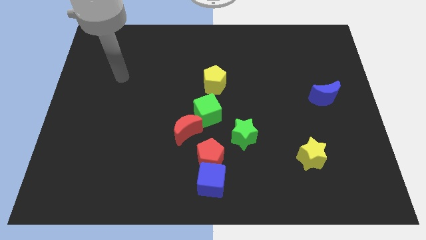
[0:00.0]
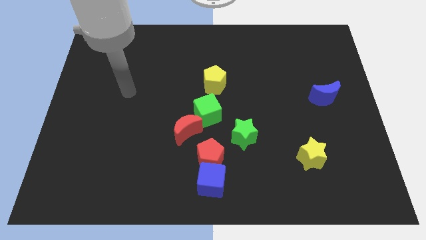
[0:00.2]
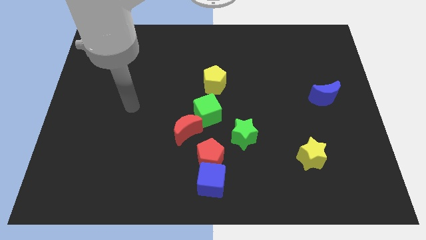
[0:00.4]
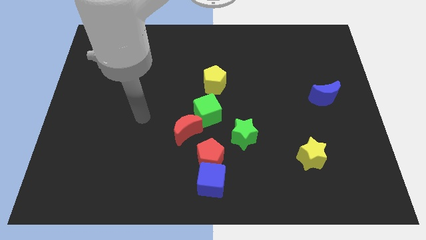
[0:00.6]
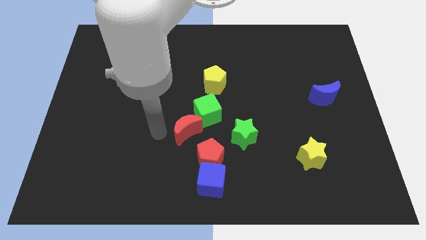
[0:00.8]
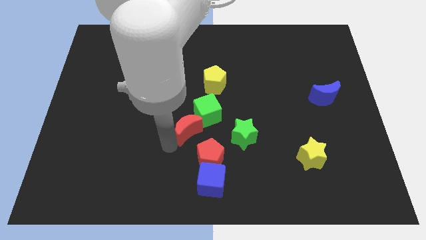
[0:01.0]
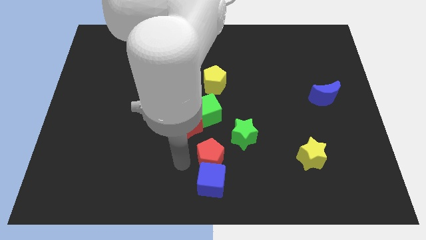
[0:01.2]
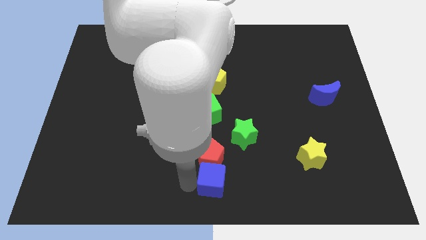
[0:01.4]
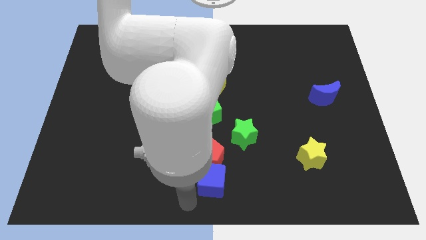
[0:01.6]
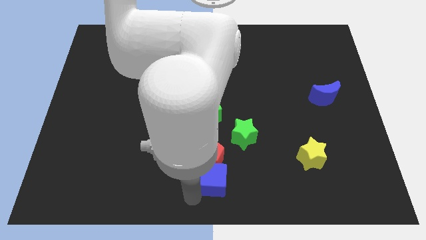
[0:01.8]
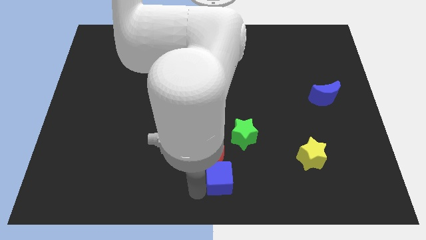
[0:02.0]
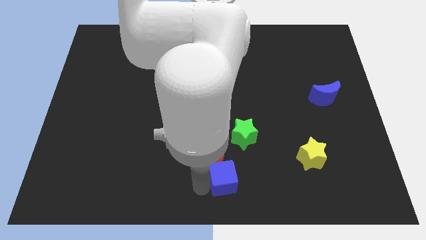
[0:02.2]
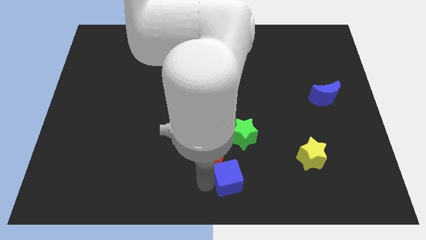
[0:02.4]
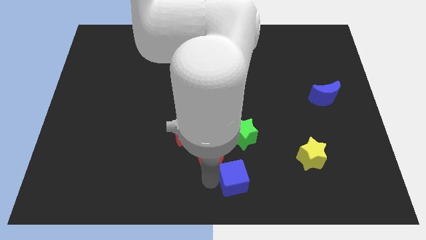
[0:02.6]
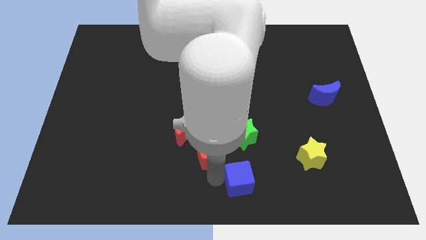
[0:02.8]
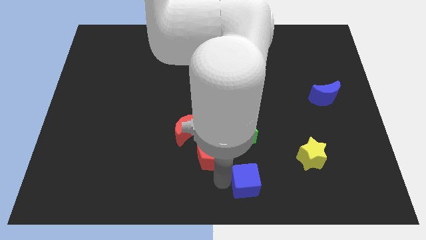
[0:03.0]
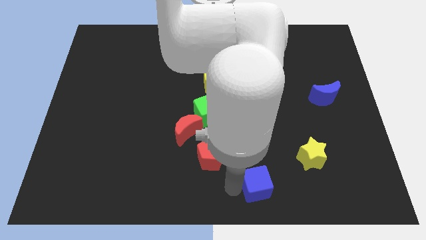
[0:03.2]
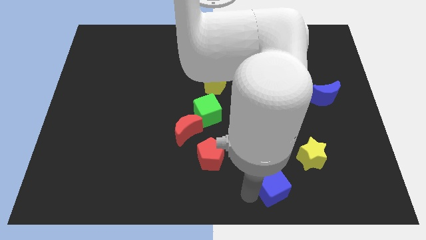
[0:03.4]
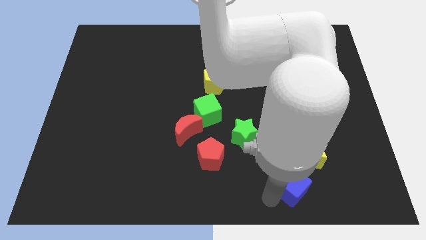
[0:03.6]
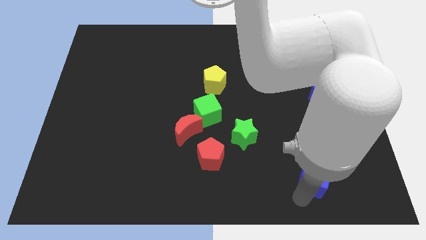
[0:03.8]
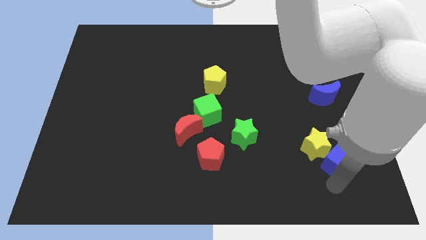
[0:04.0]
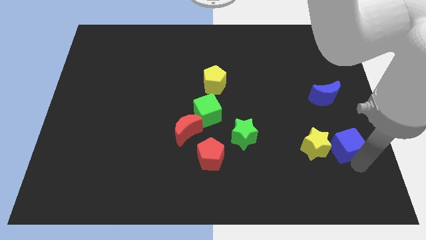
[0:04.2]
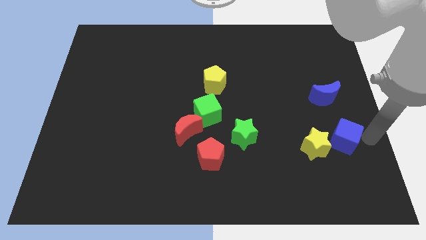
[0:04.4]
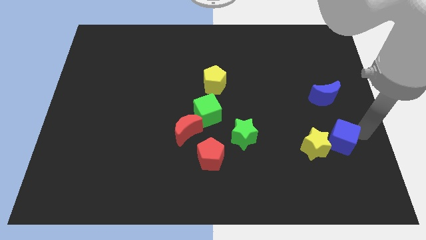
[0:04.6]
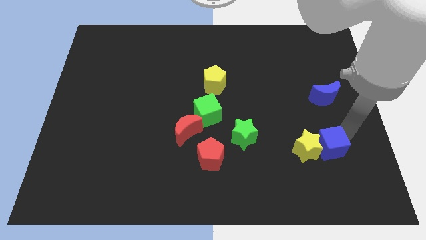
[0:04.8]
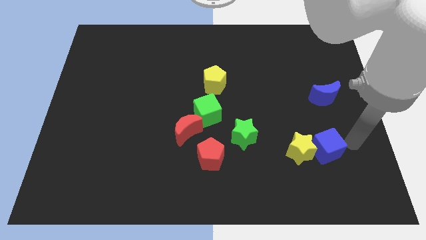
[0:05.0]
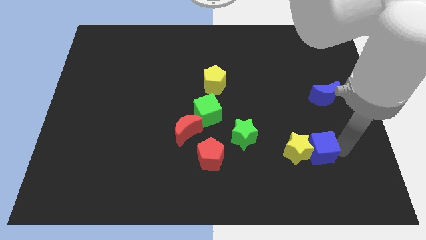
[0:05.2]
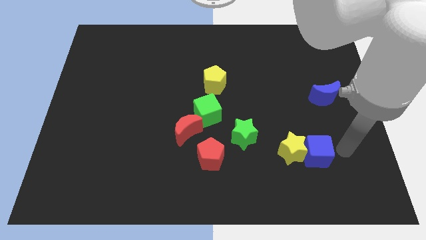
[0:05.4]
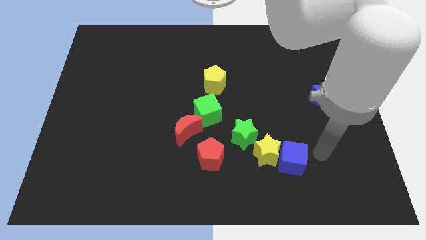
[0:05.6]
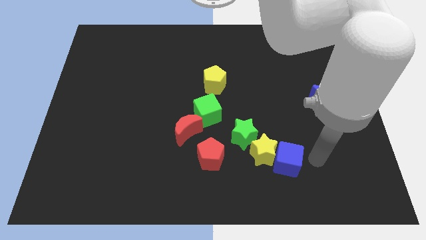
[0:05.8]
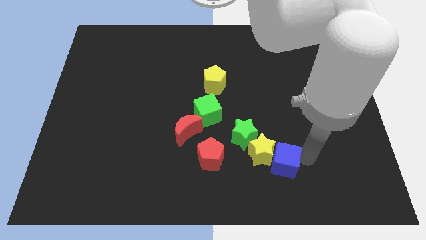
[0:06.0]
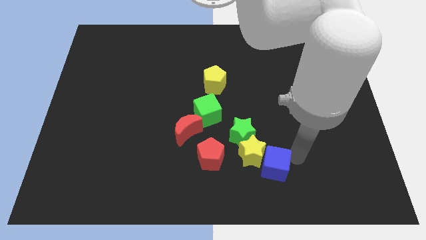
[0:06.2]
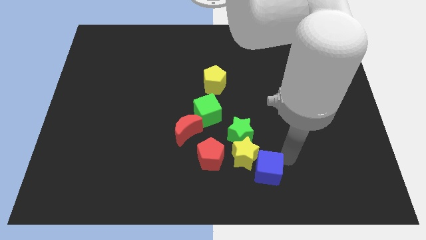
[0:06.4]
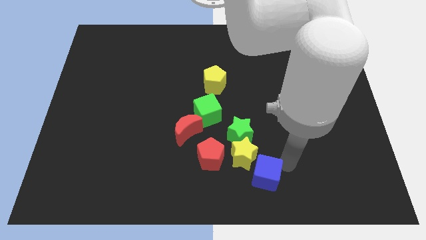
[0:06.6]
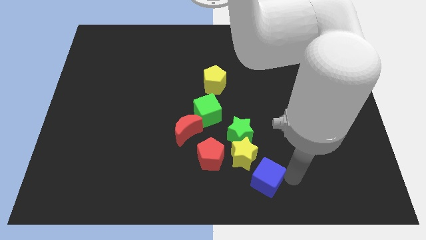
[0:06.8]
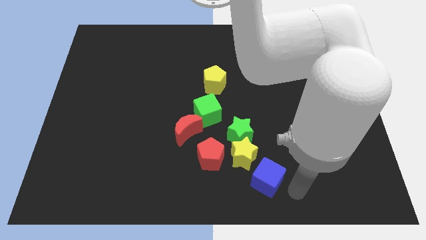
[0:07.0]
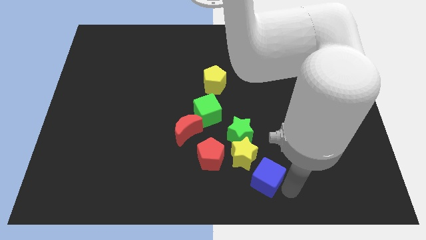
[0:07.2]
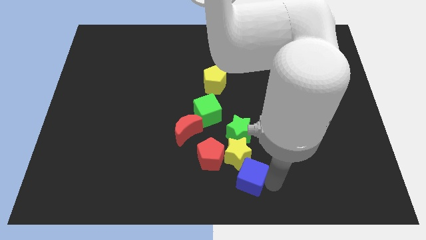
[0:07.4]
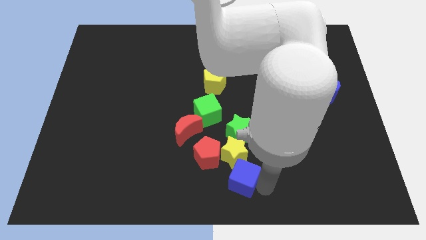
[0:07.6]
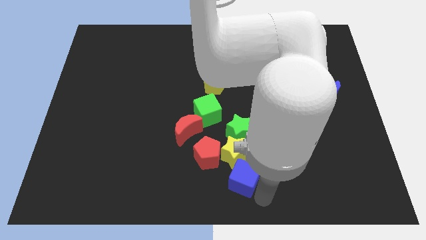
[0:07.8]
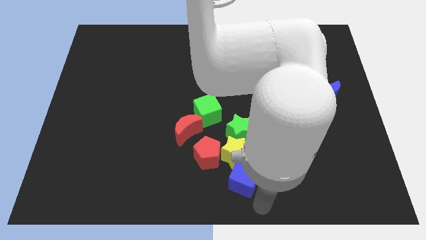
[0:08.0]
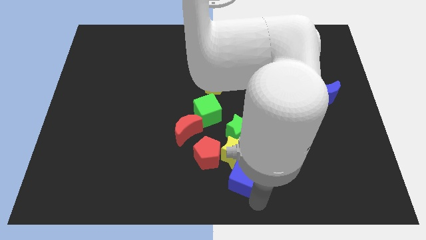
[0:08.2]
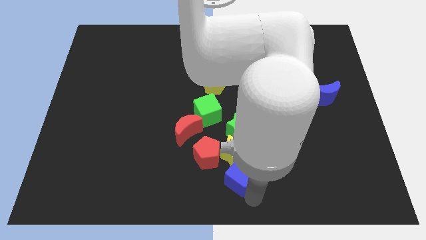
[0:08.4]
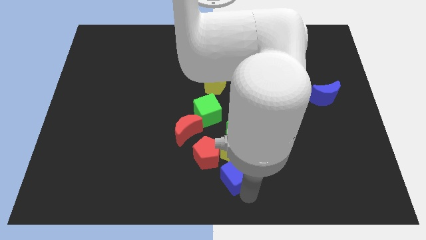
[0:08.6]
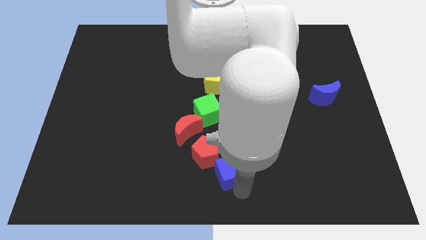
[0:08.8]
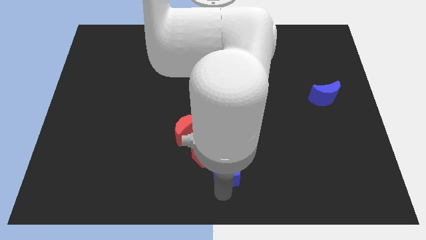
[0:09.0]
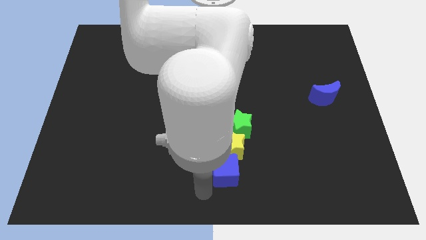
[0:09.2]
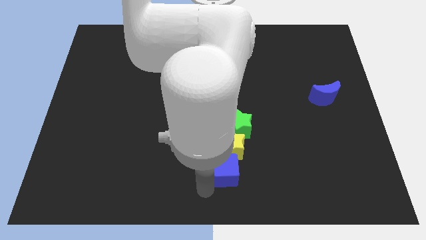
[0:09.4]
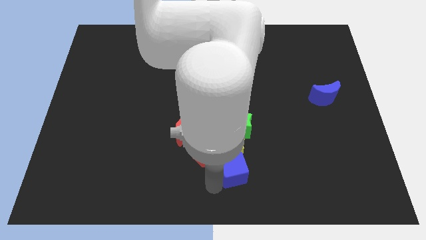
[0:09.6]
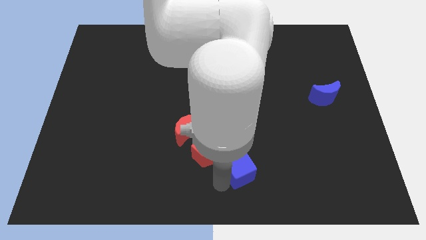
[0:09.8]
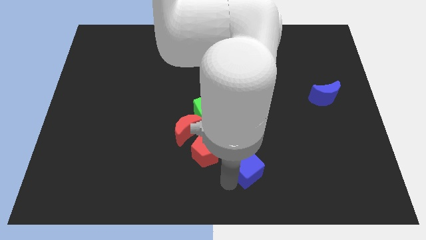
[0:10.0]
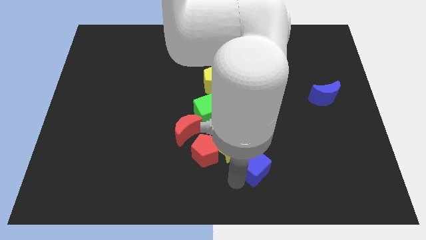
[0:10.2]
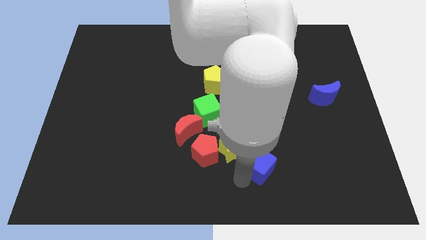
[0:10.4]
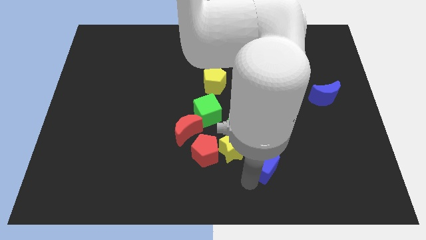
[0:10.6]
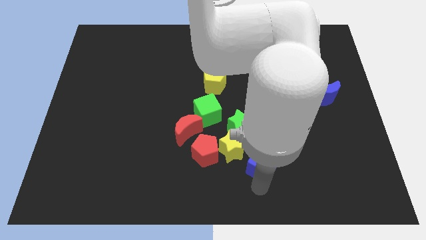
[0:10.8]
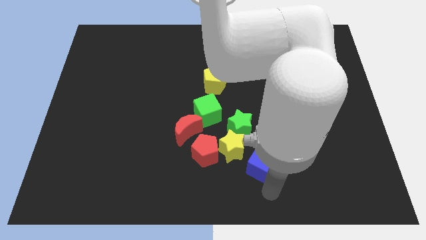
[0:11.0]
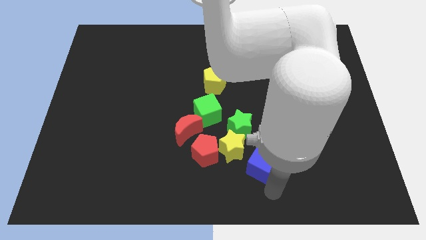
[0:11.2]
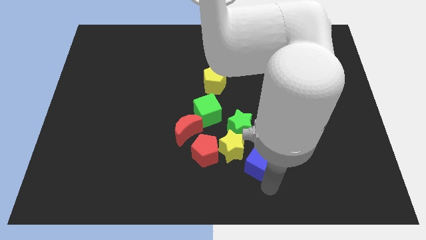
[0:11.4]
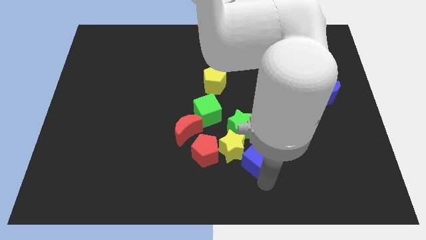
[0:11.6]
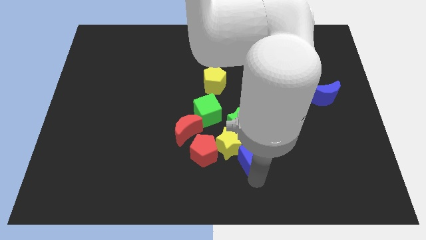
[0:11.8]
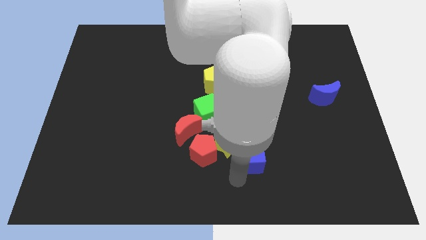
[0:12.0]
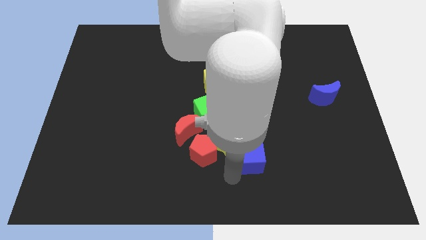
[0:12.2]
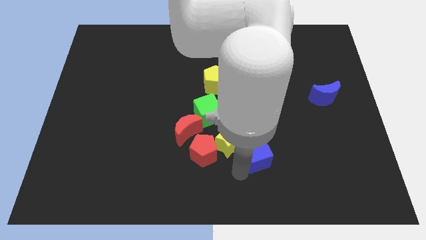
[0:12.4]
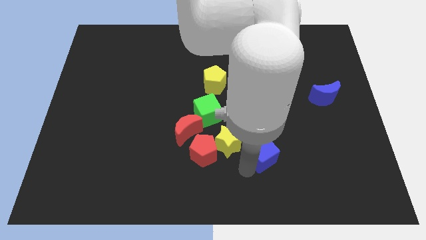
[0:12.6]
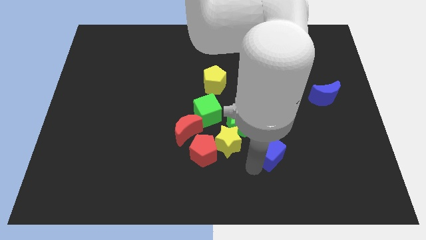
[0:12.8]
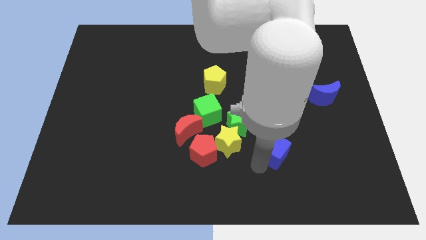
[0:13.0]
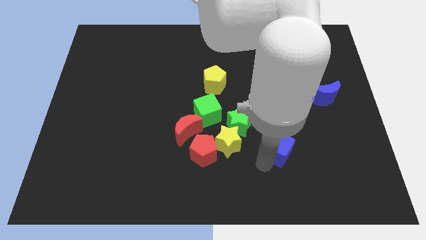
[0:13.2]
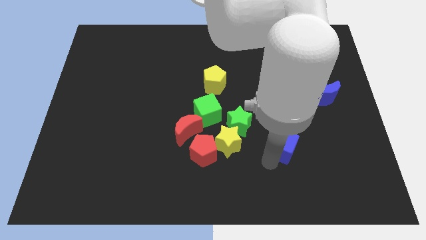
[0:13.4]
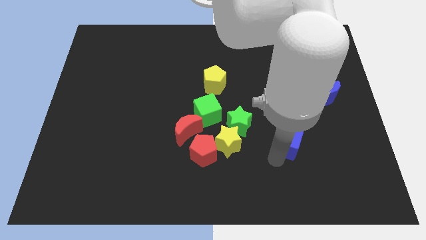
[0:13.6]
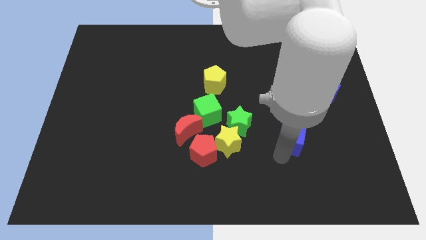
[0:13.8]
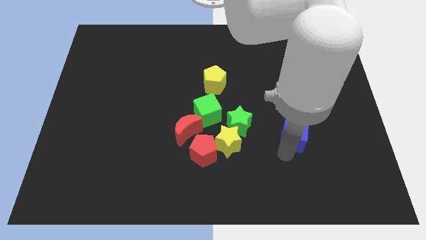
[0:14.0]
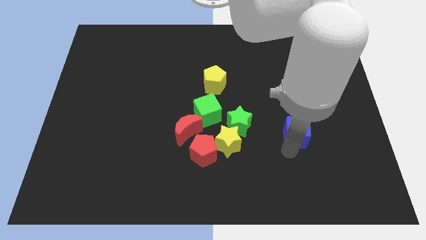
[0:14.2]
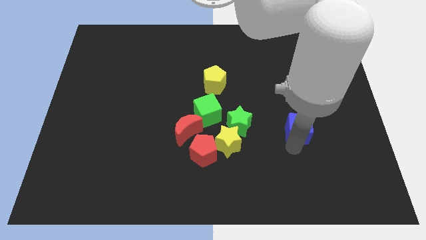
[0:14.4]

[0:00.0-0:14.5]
put the blue cube diagonally down and to the left of the blue moon

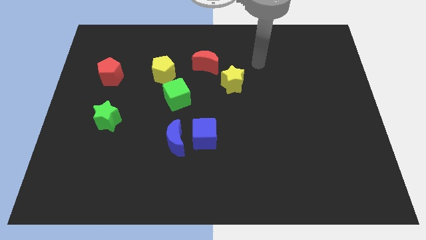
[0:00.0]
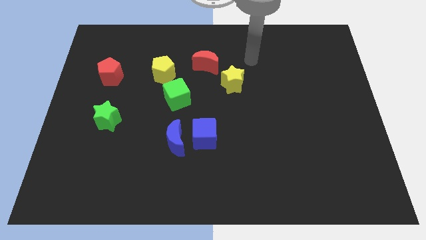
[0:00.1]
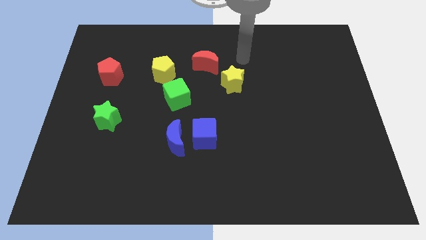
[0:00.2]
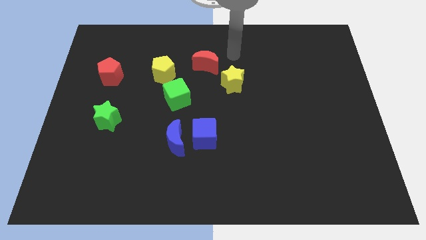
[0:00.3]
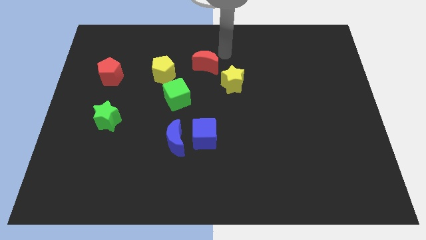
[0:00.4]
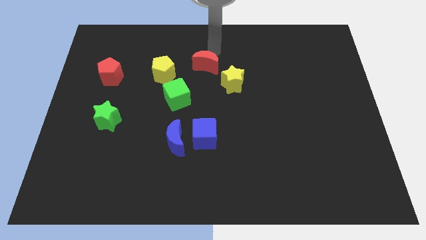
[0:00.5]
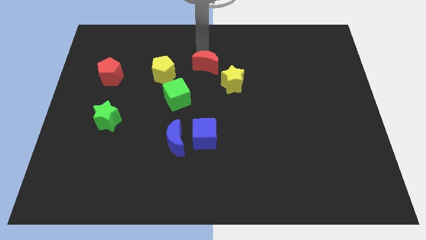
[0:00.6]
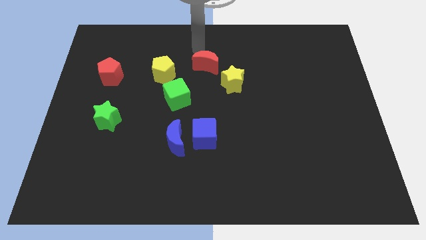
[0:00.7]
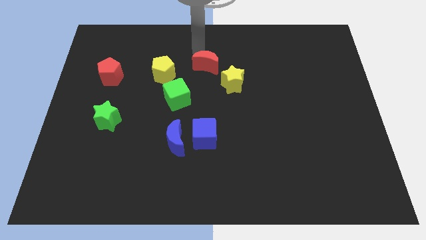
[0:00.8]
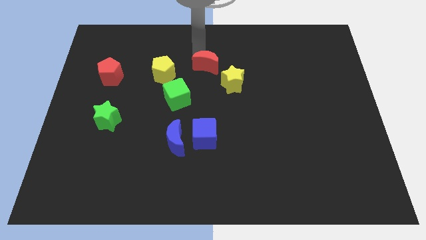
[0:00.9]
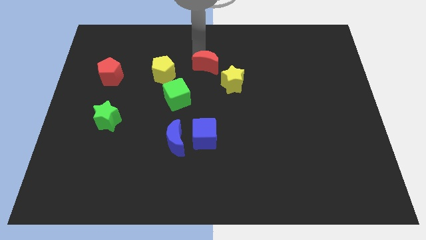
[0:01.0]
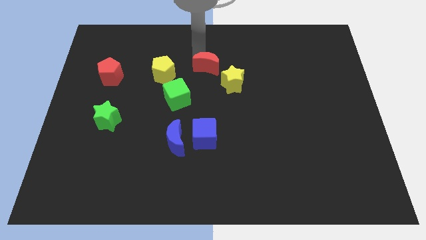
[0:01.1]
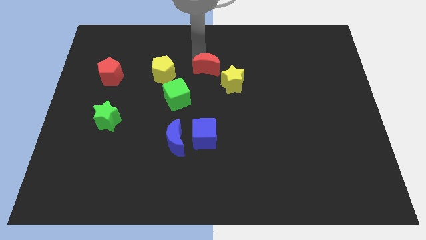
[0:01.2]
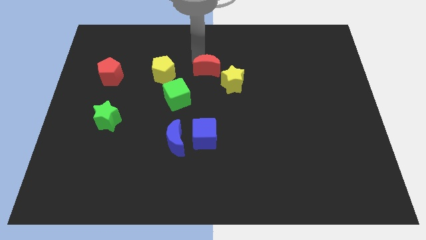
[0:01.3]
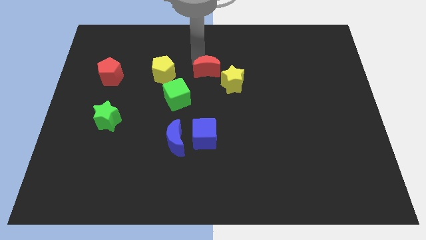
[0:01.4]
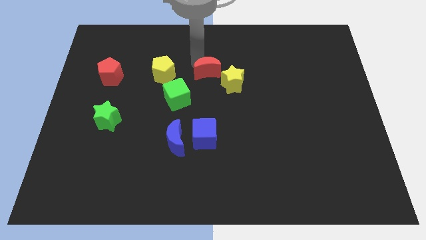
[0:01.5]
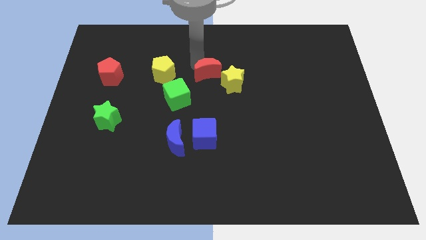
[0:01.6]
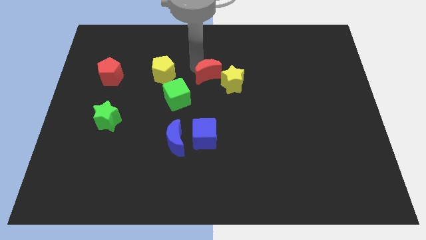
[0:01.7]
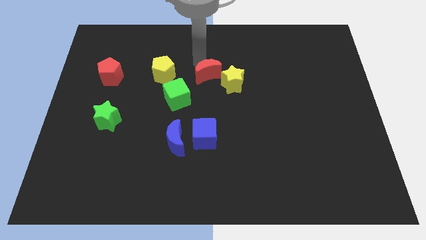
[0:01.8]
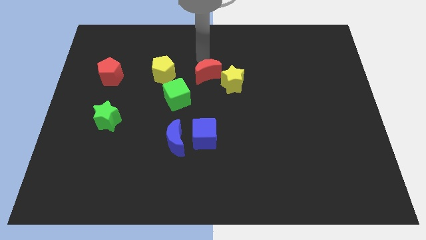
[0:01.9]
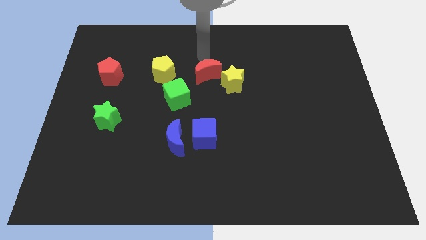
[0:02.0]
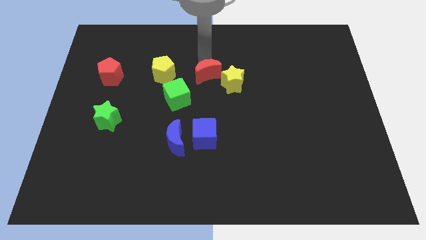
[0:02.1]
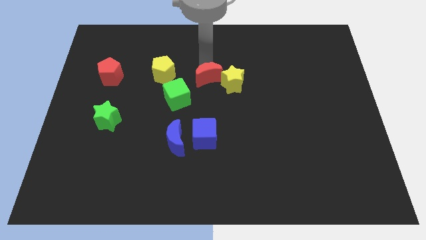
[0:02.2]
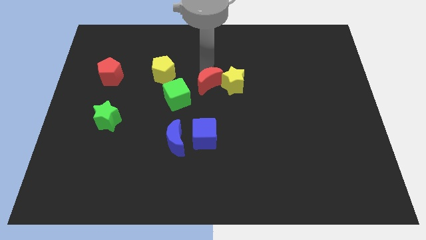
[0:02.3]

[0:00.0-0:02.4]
slide the red moon to the bottom left of the yellow star
